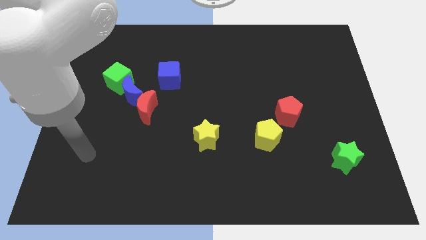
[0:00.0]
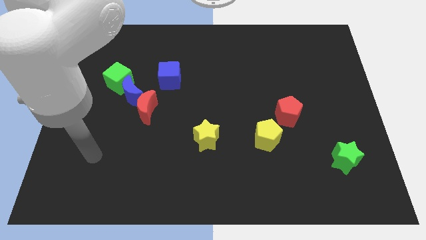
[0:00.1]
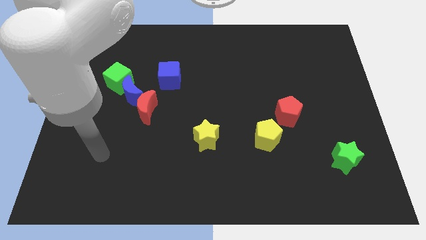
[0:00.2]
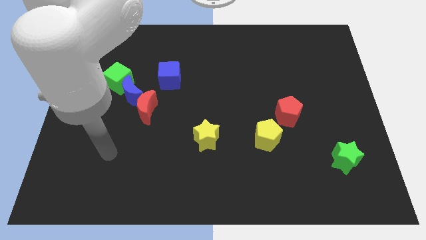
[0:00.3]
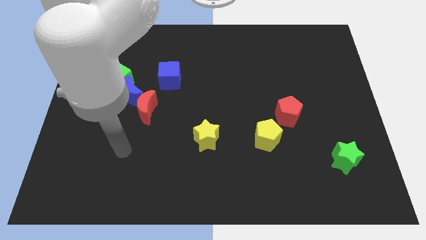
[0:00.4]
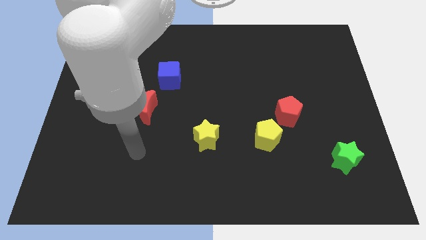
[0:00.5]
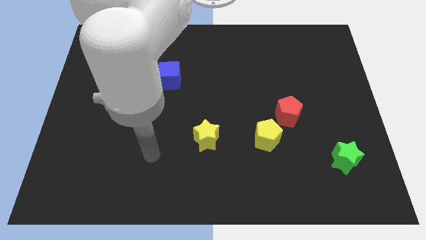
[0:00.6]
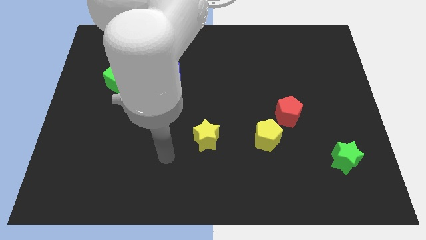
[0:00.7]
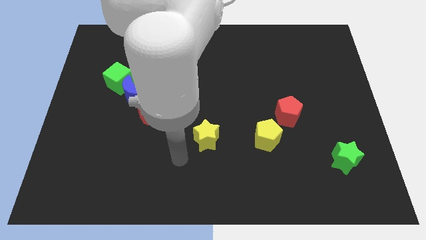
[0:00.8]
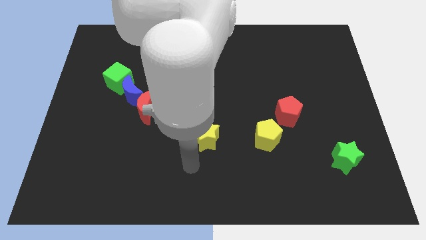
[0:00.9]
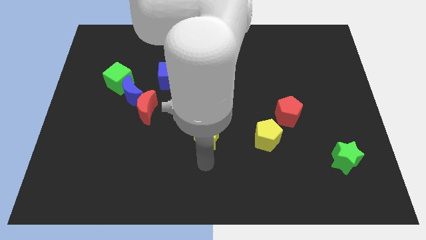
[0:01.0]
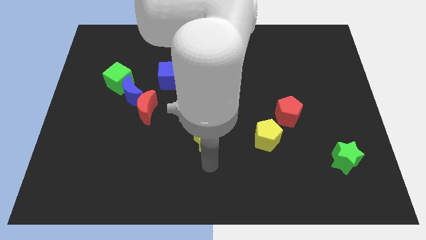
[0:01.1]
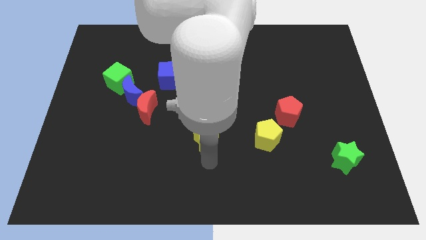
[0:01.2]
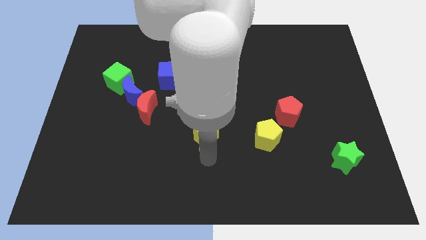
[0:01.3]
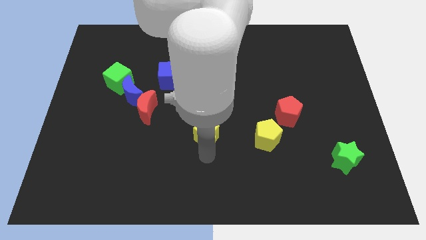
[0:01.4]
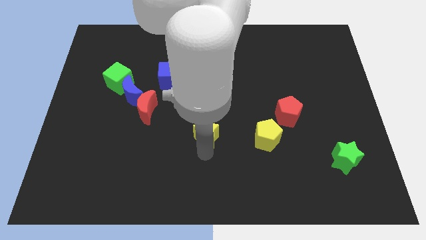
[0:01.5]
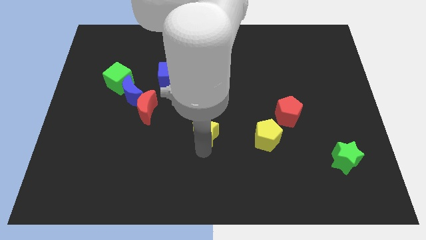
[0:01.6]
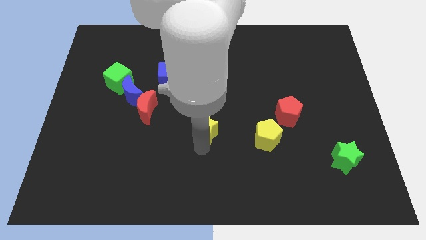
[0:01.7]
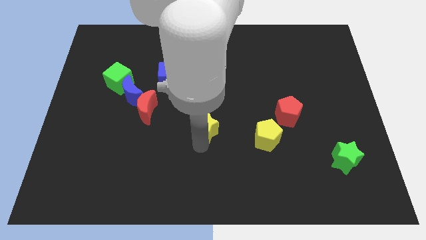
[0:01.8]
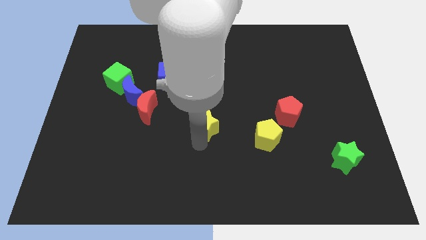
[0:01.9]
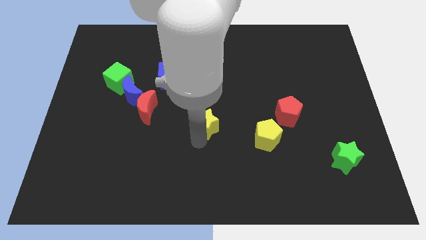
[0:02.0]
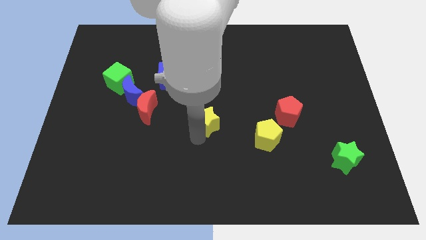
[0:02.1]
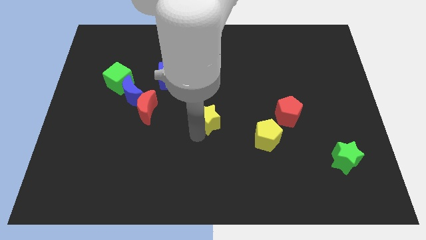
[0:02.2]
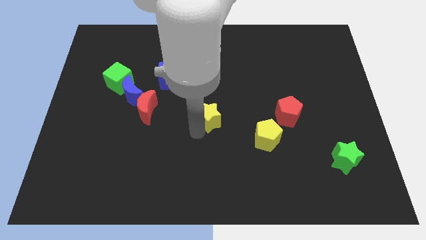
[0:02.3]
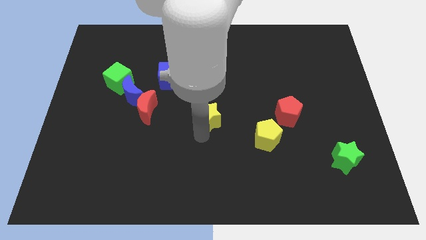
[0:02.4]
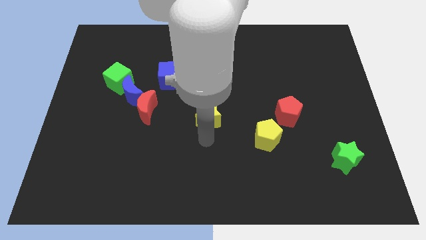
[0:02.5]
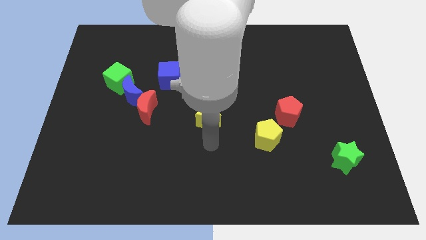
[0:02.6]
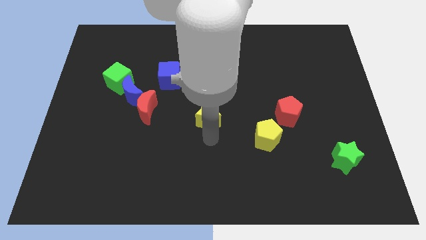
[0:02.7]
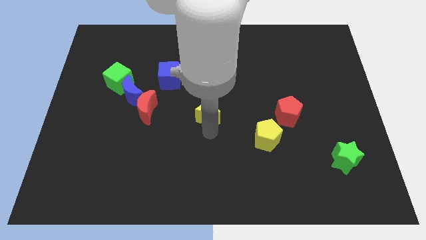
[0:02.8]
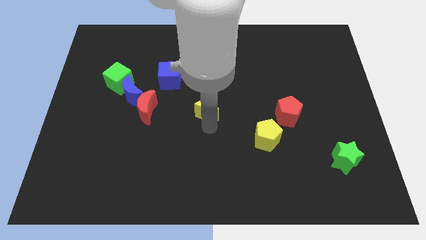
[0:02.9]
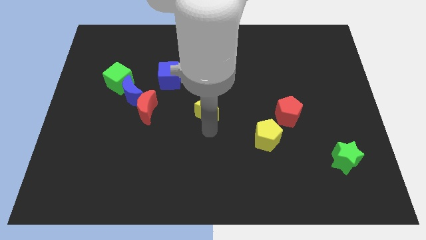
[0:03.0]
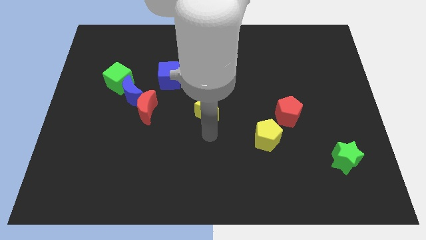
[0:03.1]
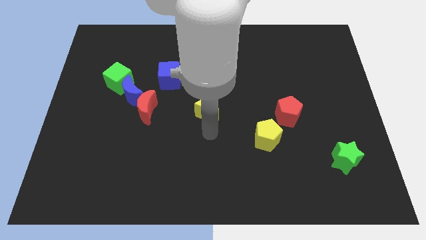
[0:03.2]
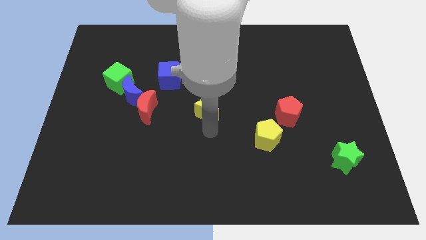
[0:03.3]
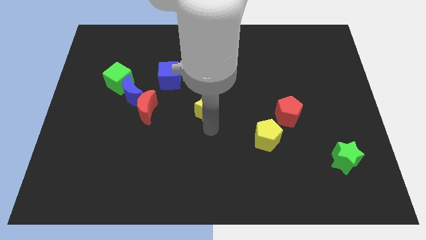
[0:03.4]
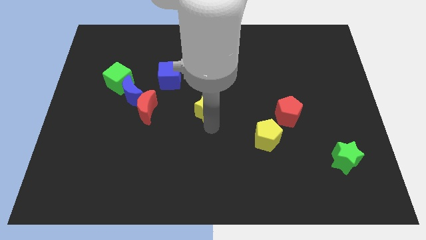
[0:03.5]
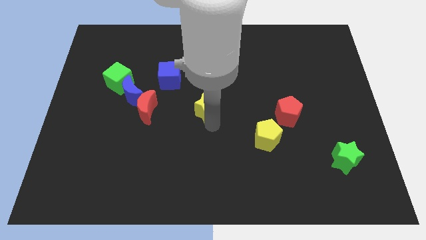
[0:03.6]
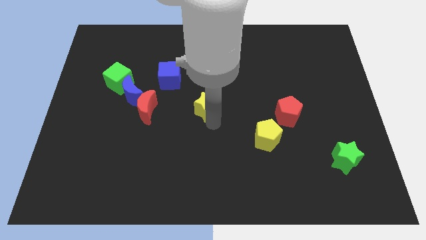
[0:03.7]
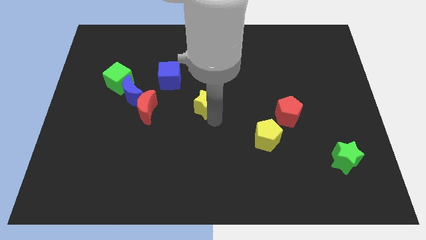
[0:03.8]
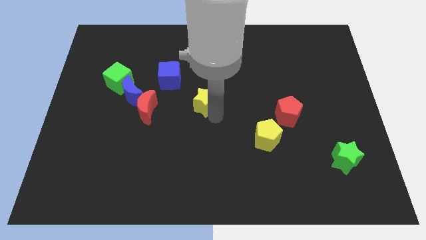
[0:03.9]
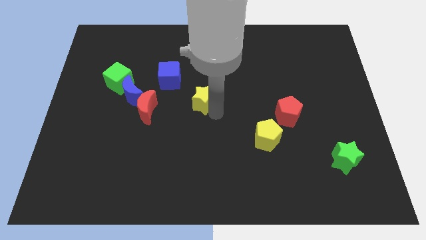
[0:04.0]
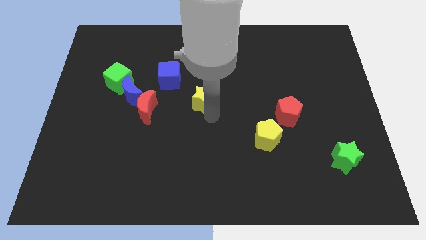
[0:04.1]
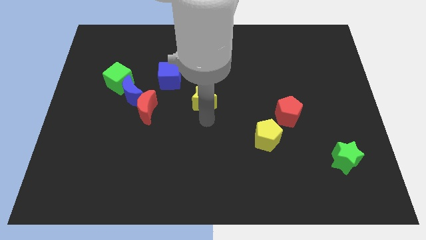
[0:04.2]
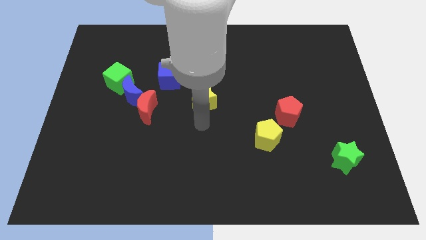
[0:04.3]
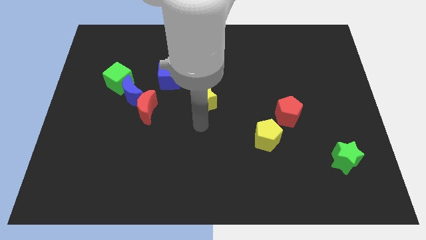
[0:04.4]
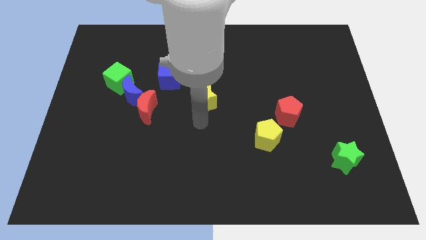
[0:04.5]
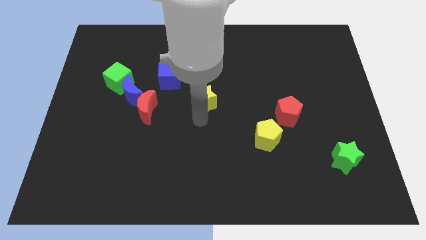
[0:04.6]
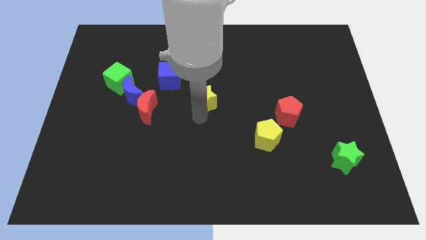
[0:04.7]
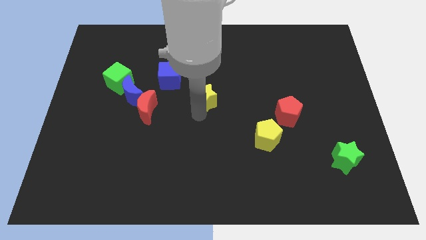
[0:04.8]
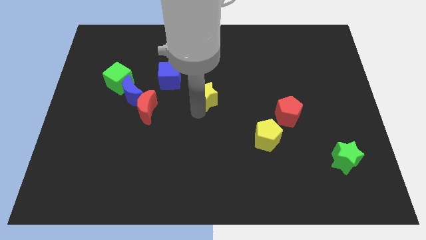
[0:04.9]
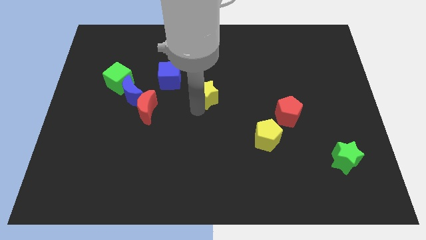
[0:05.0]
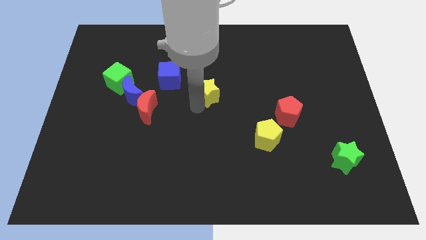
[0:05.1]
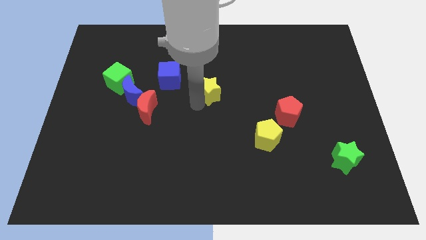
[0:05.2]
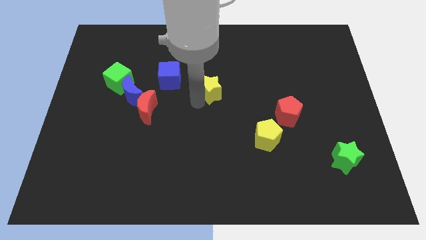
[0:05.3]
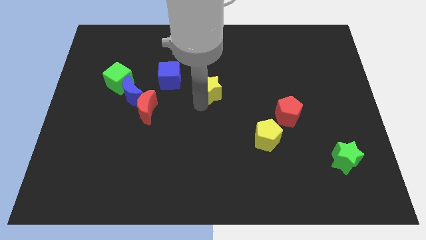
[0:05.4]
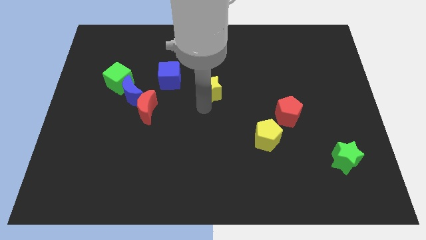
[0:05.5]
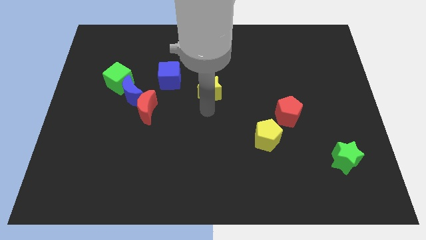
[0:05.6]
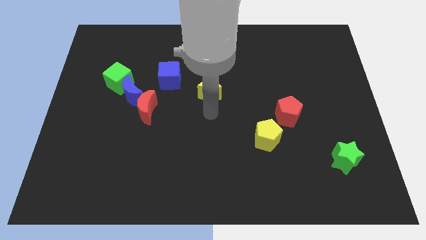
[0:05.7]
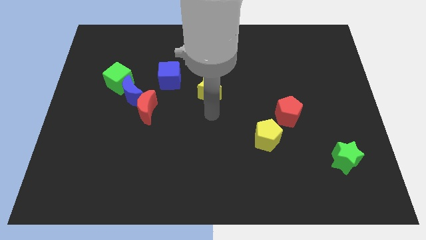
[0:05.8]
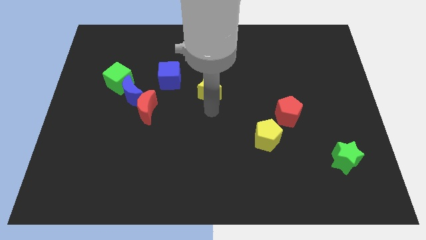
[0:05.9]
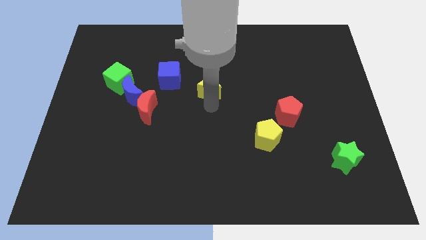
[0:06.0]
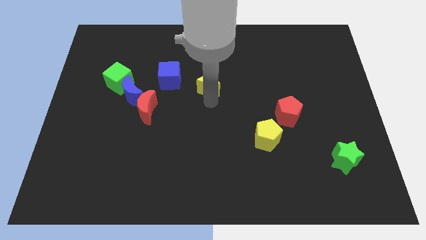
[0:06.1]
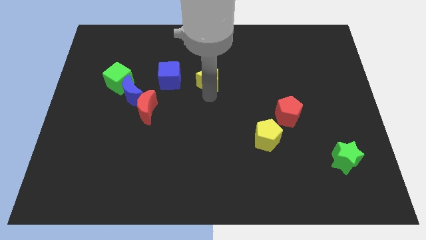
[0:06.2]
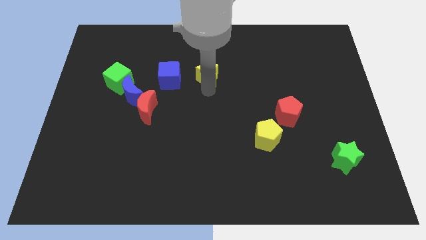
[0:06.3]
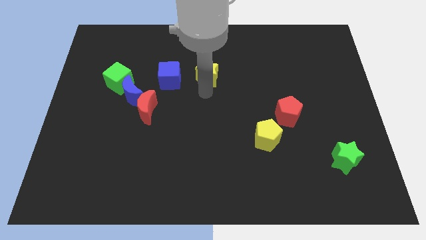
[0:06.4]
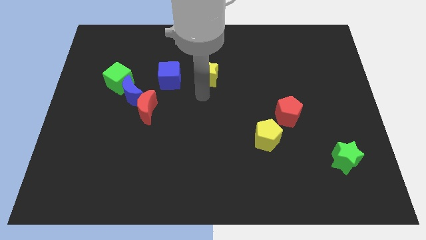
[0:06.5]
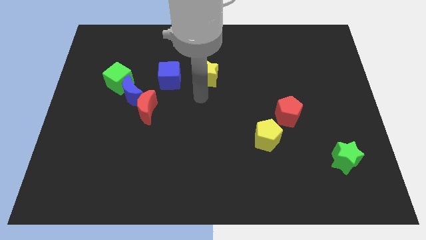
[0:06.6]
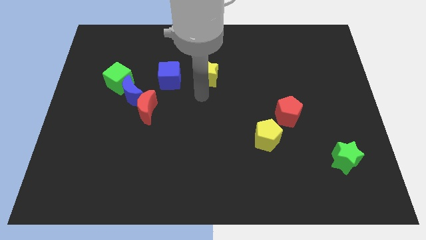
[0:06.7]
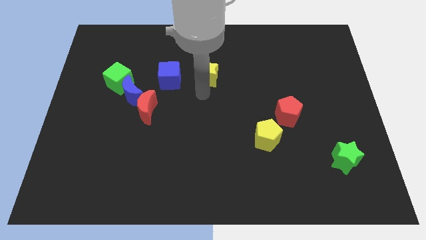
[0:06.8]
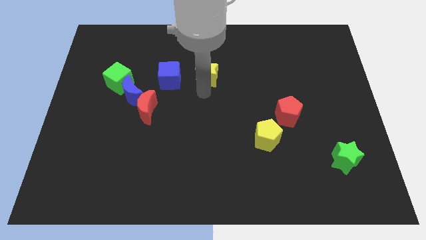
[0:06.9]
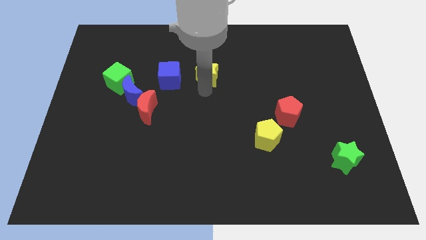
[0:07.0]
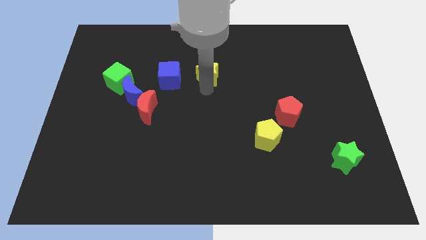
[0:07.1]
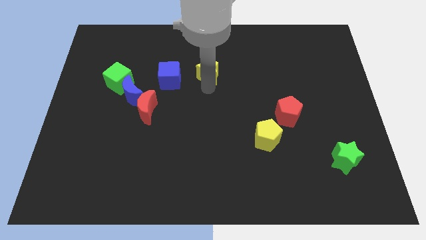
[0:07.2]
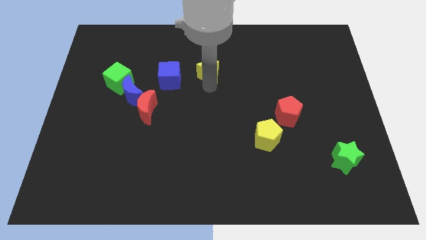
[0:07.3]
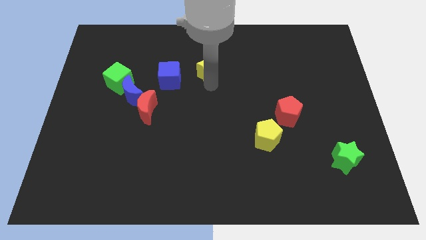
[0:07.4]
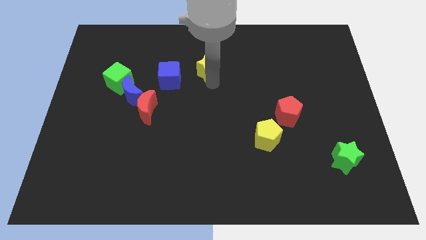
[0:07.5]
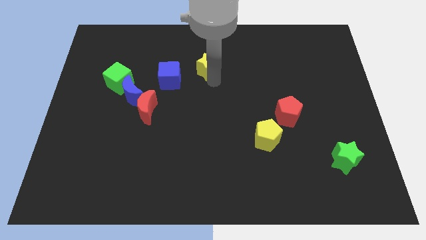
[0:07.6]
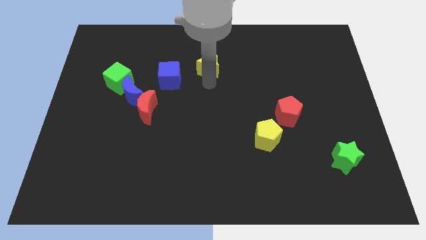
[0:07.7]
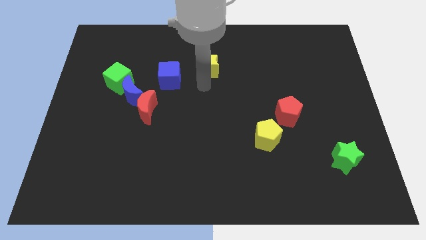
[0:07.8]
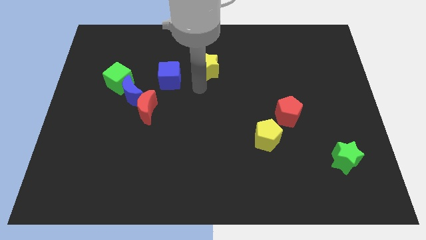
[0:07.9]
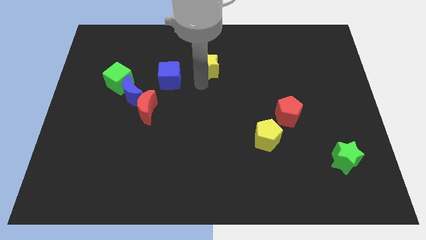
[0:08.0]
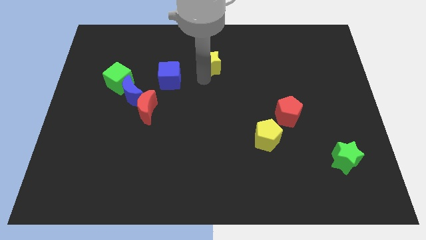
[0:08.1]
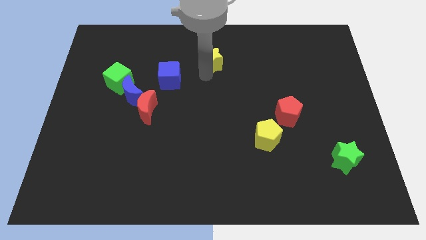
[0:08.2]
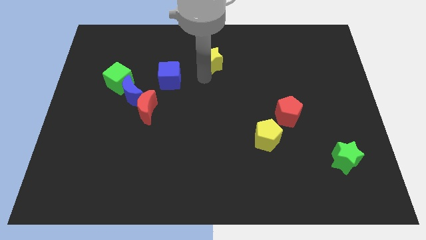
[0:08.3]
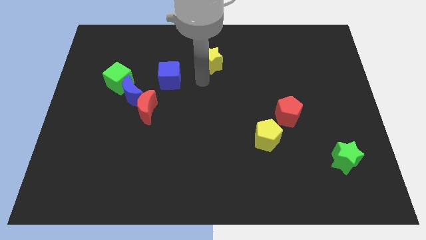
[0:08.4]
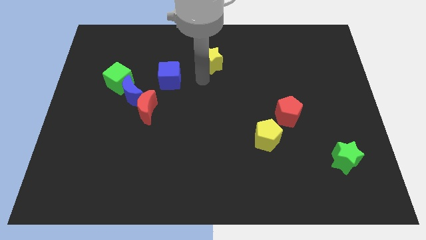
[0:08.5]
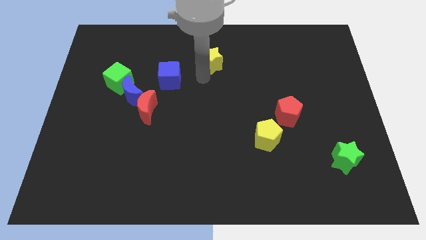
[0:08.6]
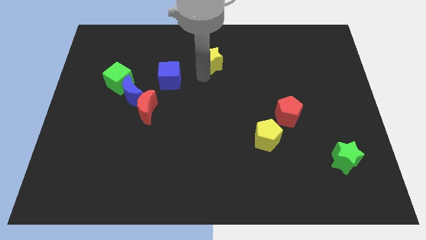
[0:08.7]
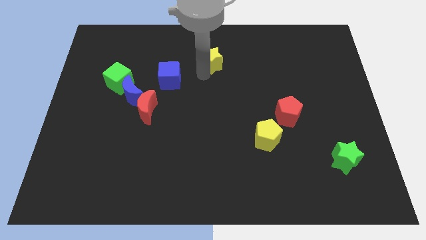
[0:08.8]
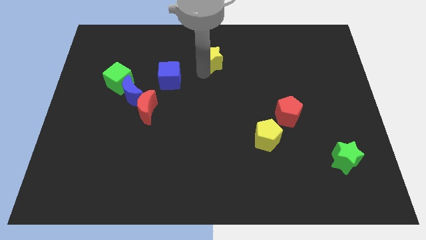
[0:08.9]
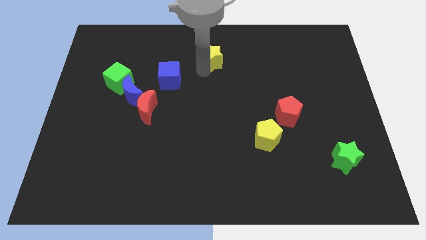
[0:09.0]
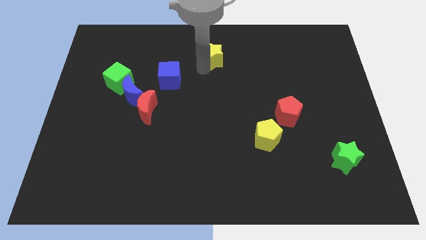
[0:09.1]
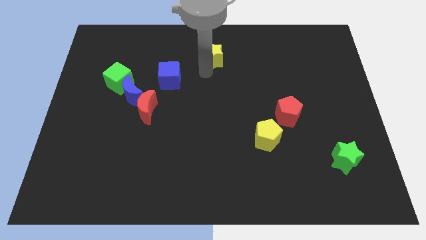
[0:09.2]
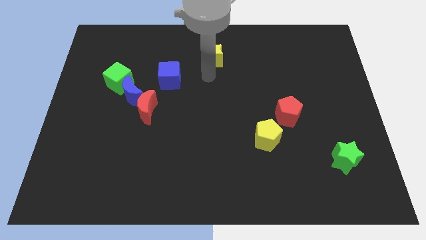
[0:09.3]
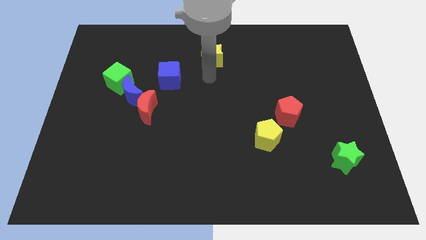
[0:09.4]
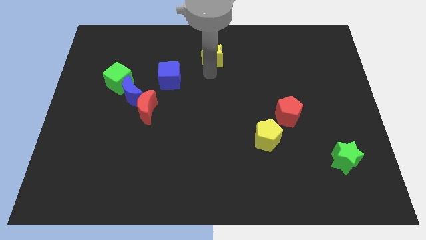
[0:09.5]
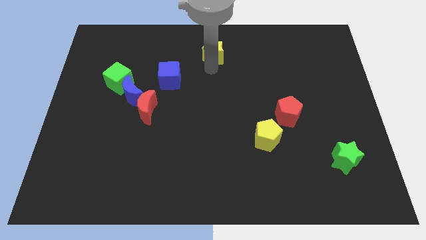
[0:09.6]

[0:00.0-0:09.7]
push the yellow star to the top side
